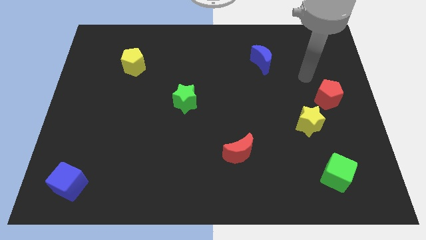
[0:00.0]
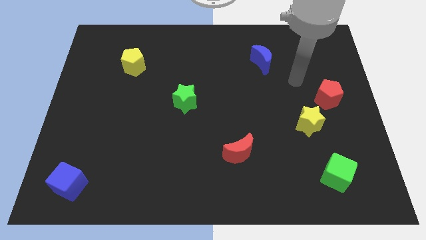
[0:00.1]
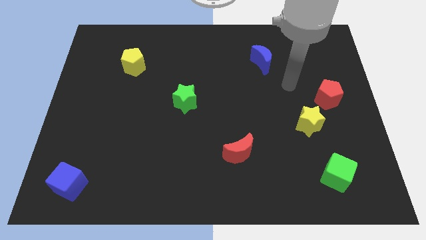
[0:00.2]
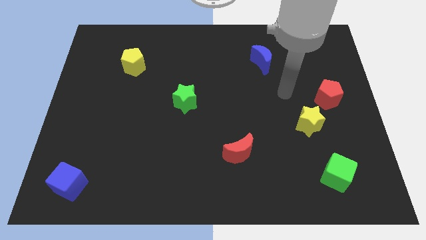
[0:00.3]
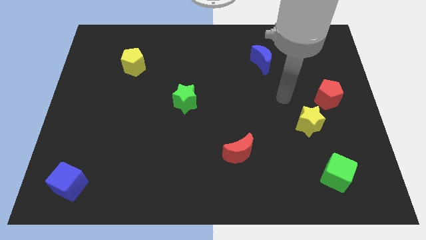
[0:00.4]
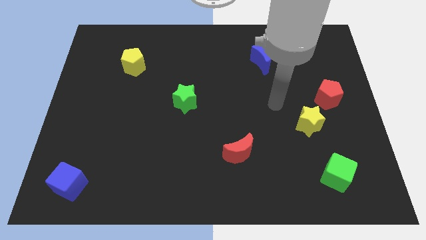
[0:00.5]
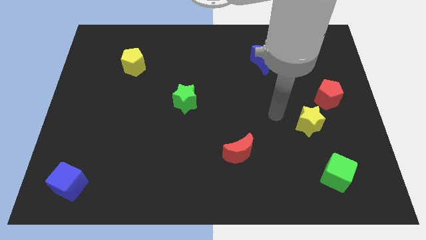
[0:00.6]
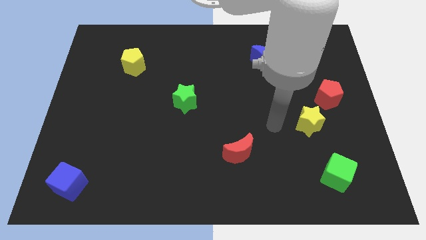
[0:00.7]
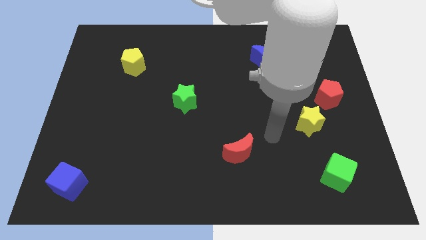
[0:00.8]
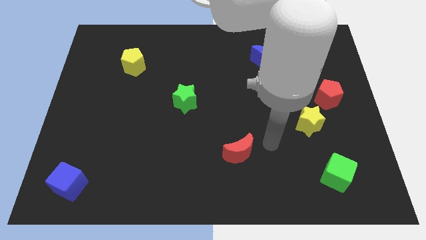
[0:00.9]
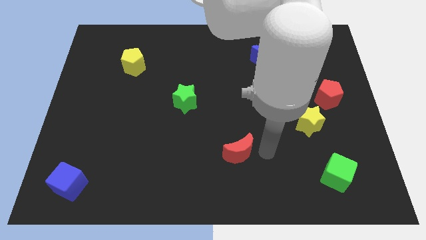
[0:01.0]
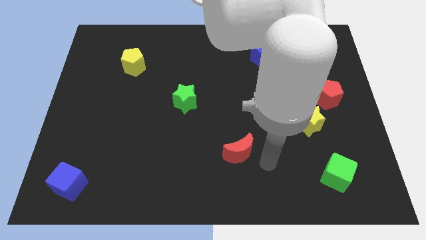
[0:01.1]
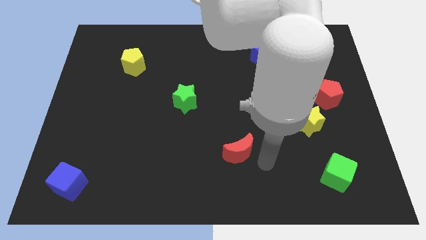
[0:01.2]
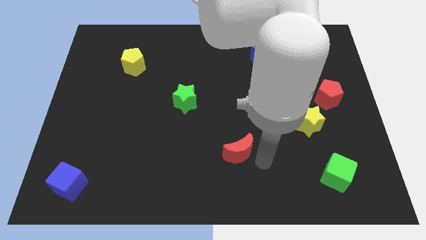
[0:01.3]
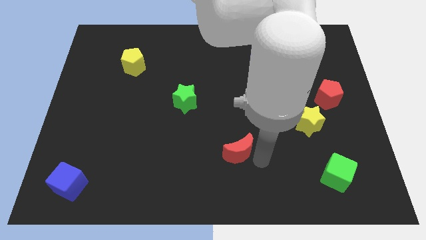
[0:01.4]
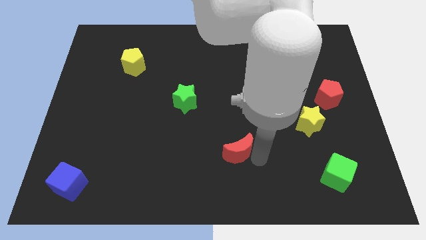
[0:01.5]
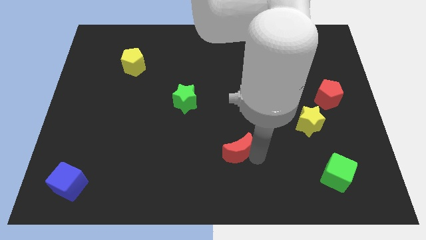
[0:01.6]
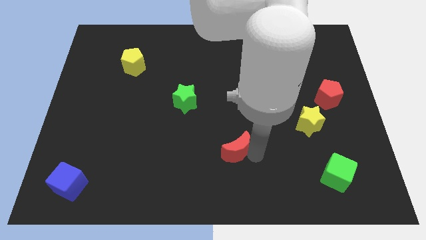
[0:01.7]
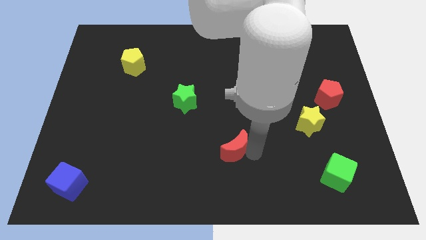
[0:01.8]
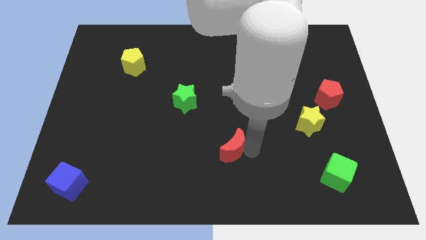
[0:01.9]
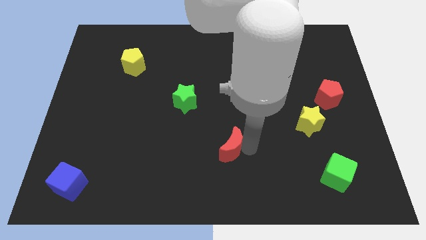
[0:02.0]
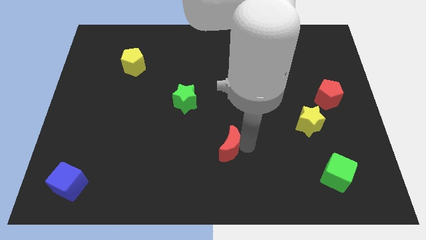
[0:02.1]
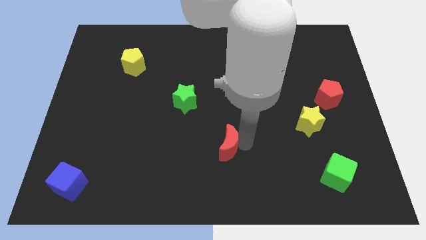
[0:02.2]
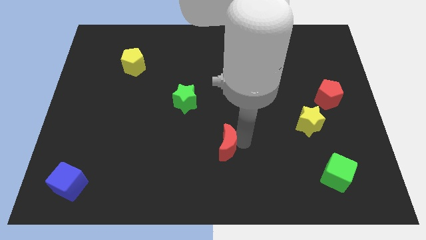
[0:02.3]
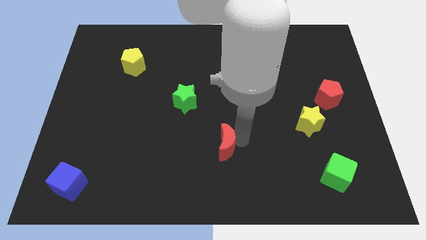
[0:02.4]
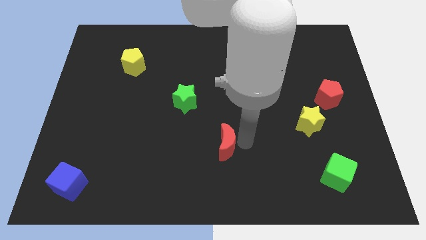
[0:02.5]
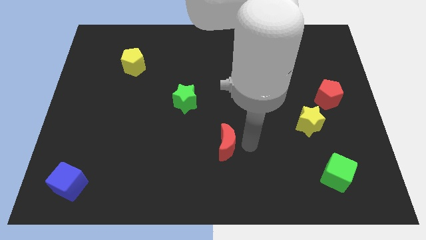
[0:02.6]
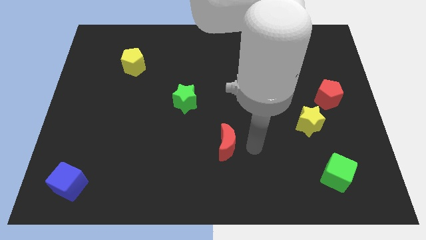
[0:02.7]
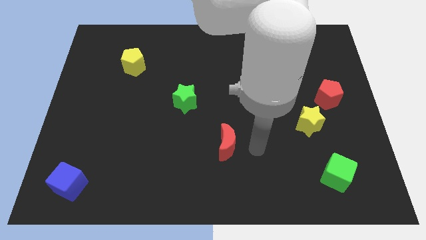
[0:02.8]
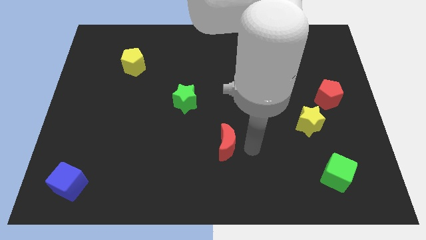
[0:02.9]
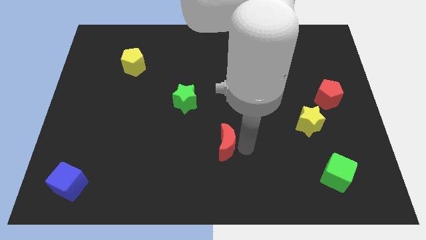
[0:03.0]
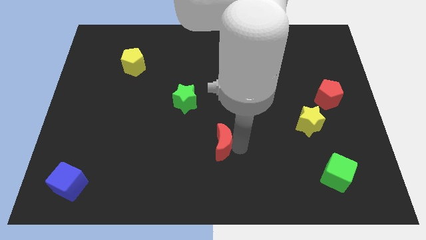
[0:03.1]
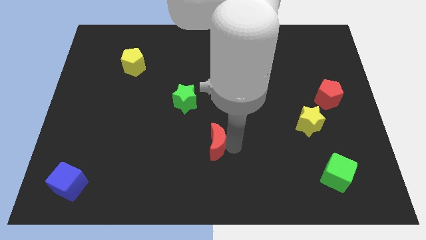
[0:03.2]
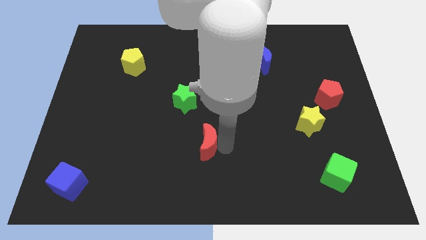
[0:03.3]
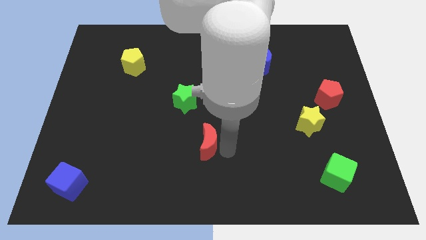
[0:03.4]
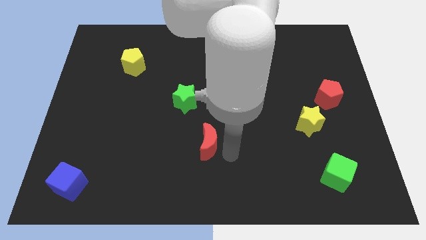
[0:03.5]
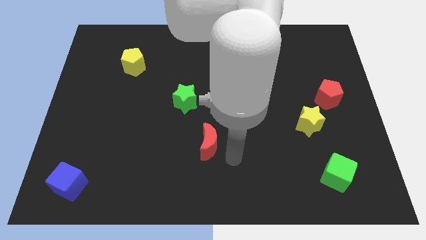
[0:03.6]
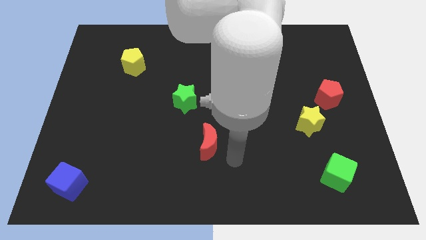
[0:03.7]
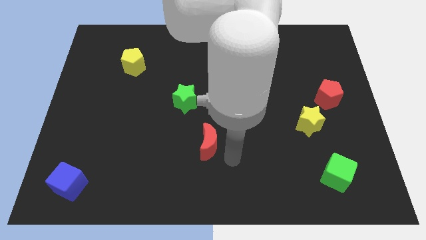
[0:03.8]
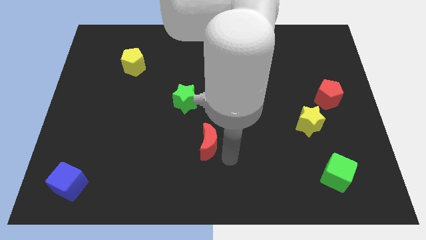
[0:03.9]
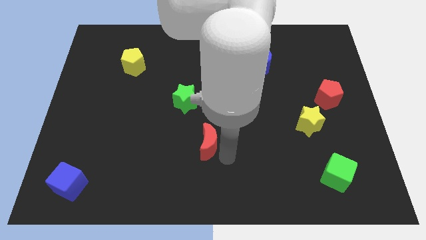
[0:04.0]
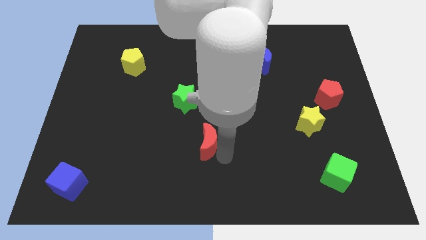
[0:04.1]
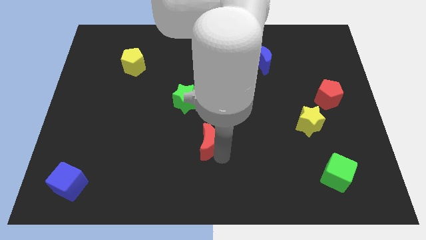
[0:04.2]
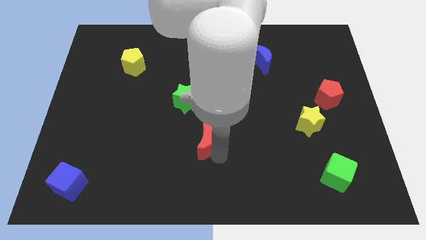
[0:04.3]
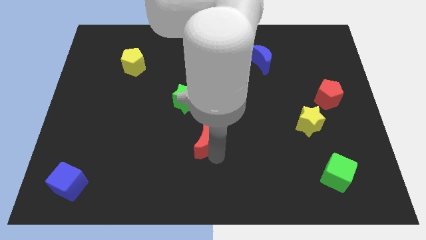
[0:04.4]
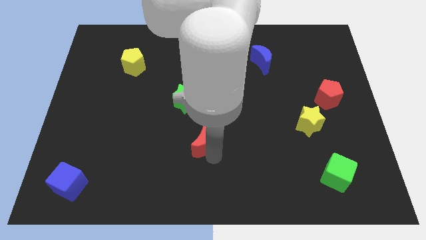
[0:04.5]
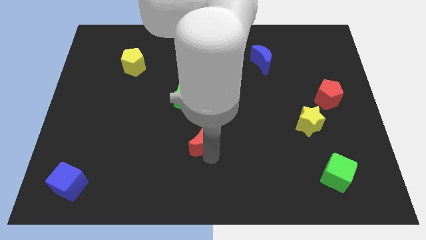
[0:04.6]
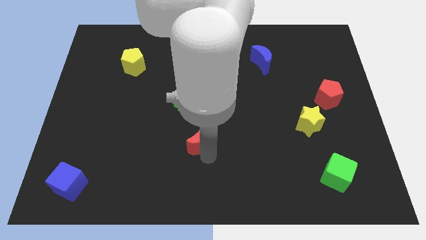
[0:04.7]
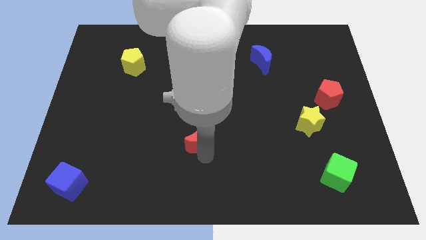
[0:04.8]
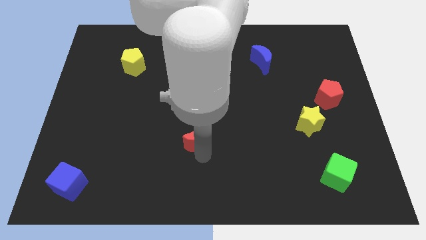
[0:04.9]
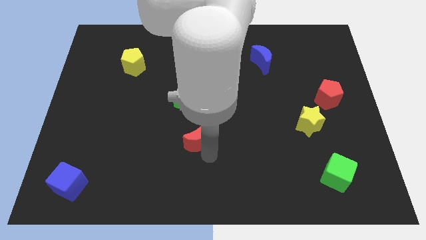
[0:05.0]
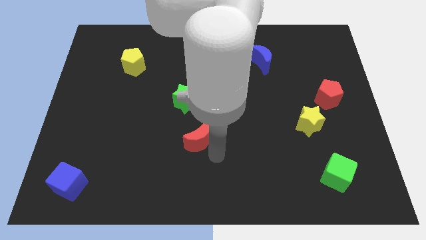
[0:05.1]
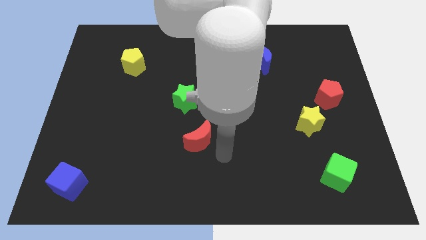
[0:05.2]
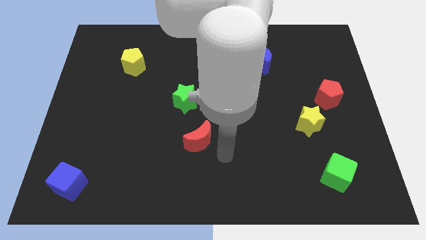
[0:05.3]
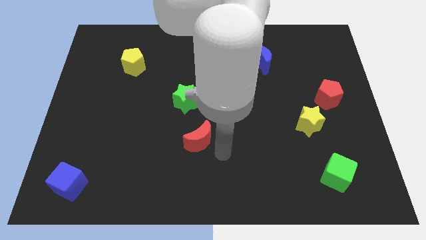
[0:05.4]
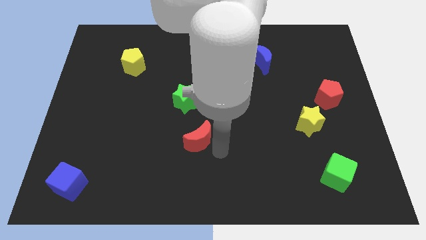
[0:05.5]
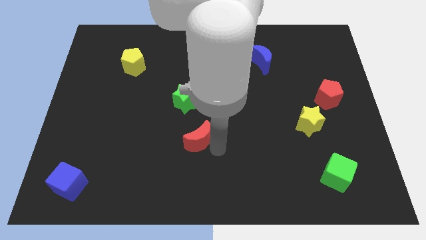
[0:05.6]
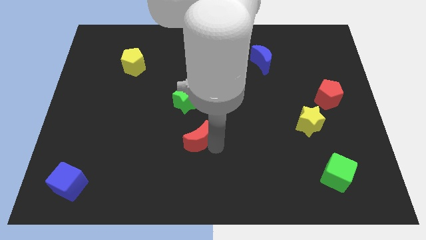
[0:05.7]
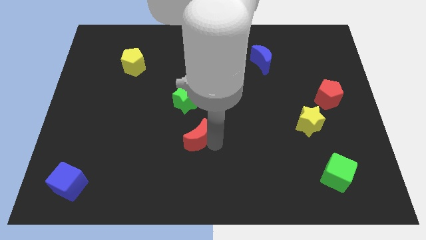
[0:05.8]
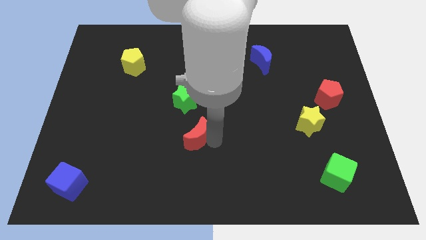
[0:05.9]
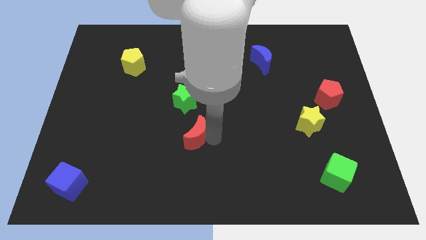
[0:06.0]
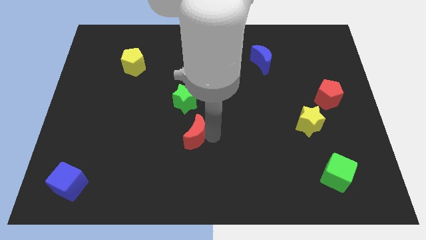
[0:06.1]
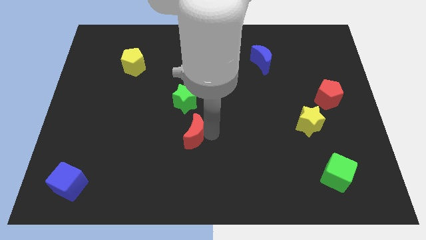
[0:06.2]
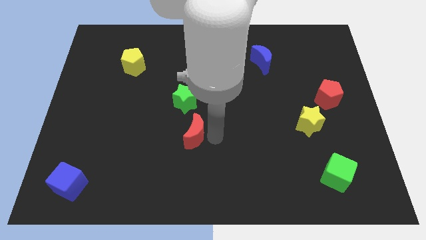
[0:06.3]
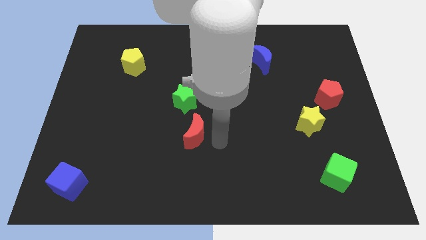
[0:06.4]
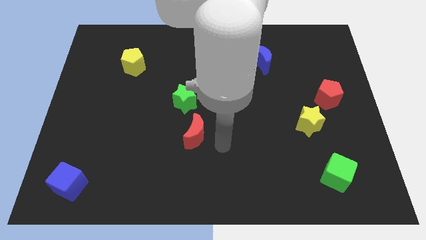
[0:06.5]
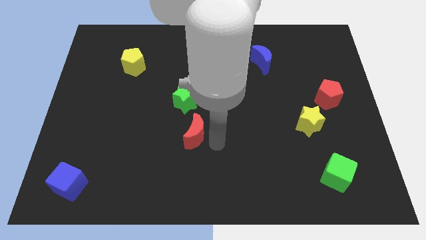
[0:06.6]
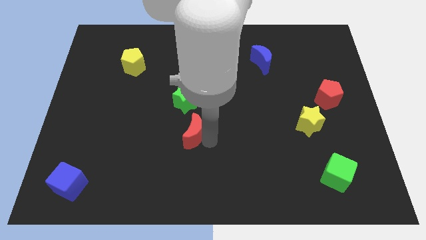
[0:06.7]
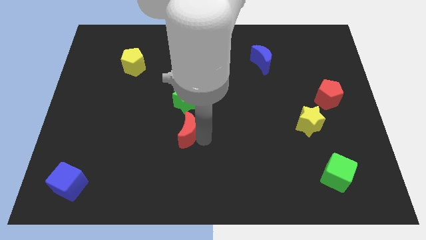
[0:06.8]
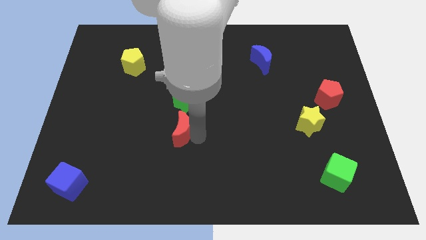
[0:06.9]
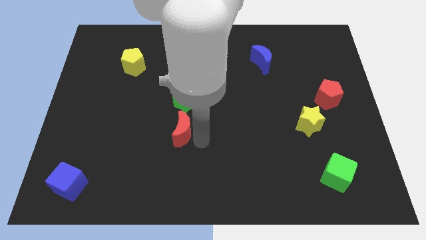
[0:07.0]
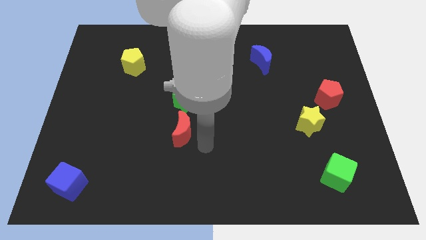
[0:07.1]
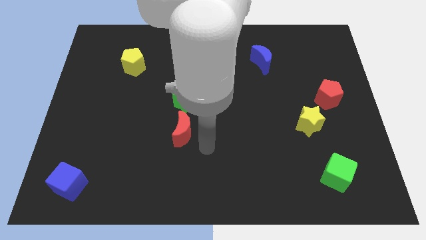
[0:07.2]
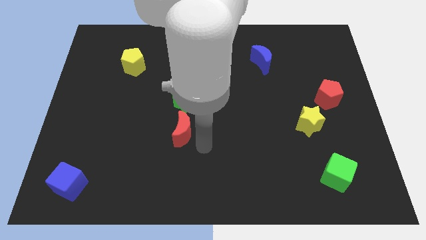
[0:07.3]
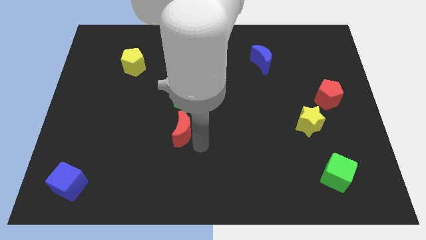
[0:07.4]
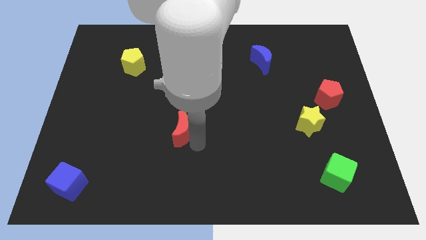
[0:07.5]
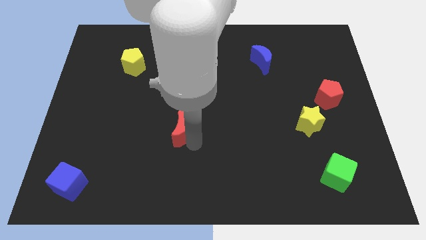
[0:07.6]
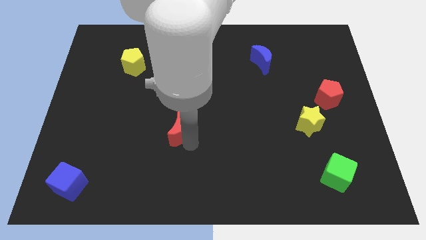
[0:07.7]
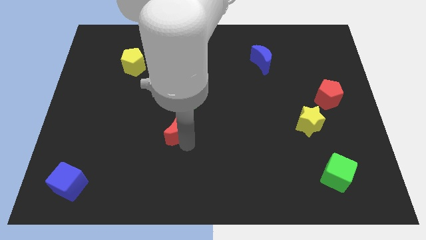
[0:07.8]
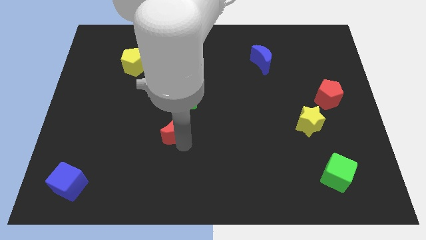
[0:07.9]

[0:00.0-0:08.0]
push the red moon to the bottom left of the green star
